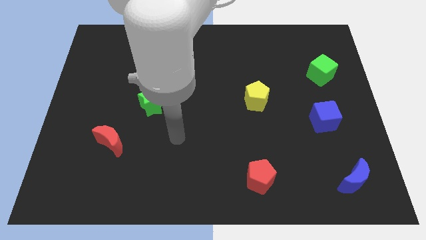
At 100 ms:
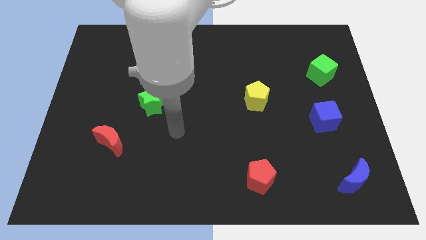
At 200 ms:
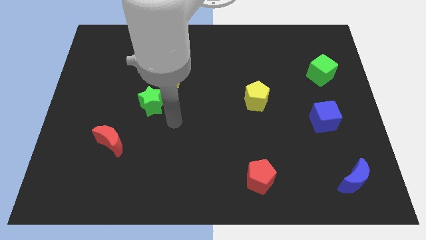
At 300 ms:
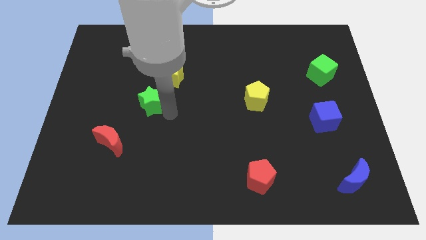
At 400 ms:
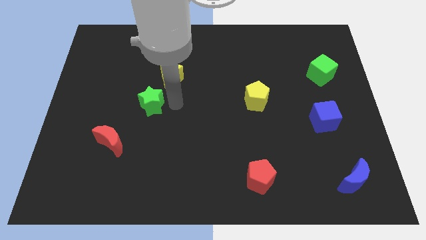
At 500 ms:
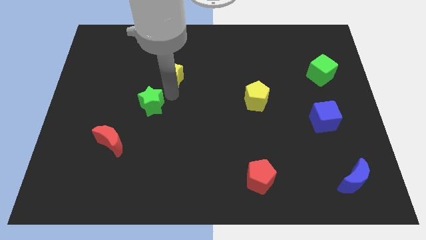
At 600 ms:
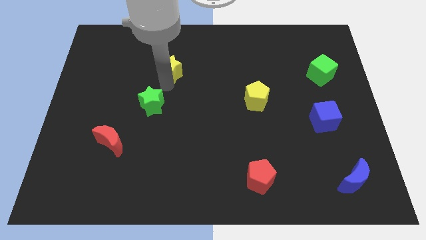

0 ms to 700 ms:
move the green star away from the yellow star

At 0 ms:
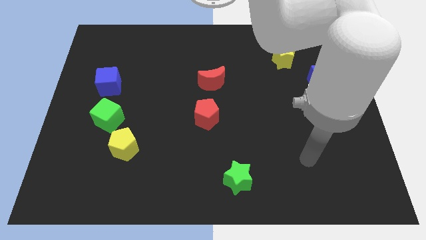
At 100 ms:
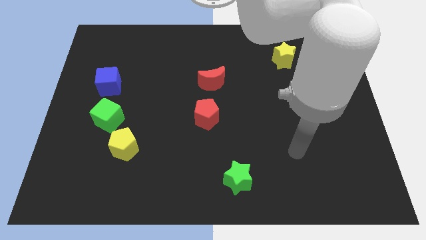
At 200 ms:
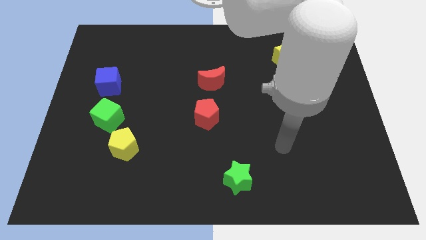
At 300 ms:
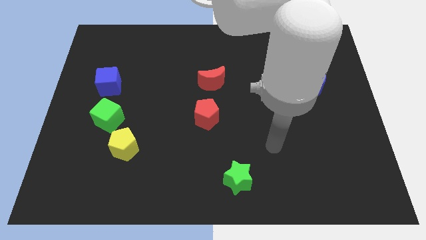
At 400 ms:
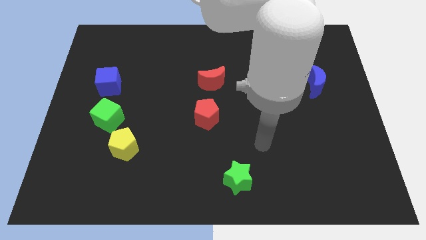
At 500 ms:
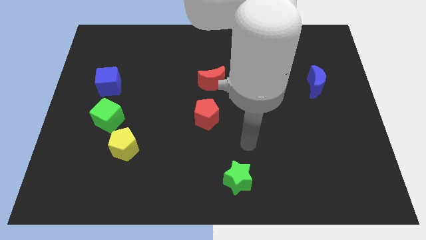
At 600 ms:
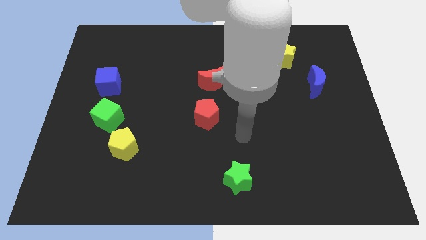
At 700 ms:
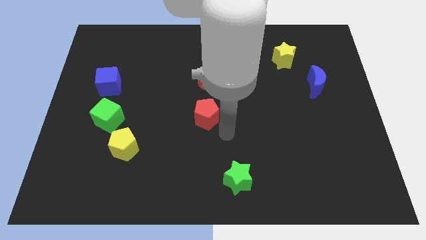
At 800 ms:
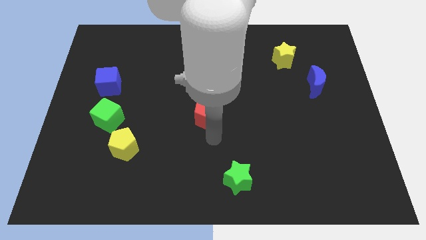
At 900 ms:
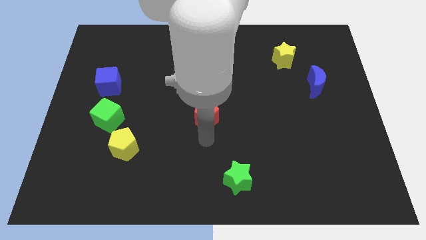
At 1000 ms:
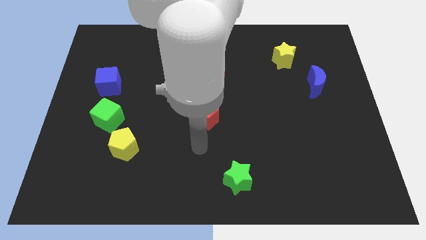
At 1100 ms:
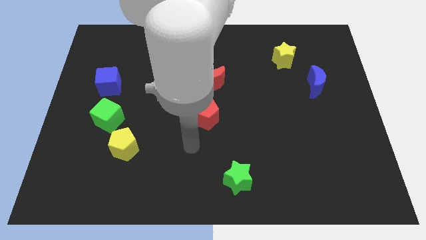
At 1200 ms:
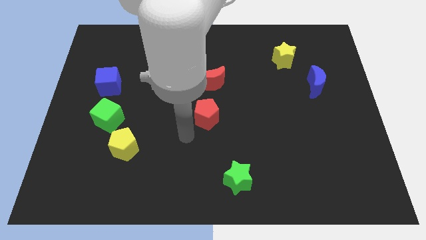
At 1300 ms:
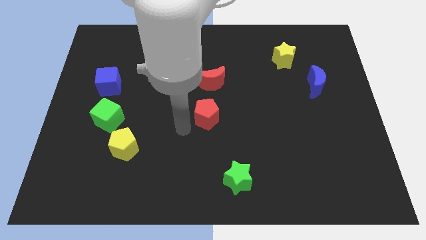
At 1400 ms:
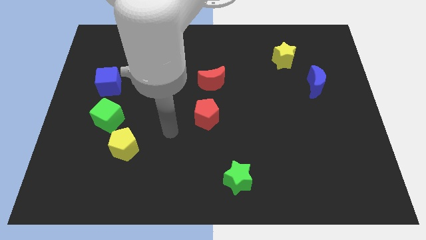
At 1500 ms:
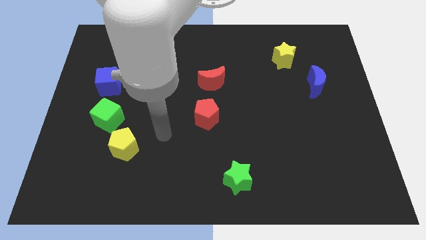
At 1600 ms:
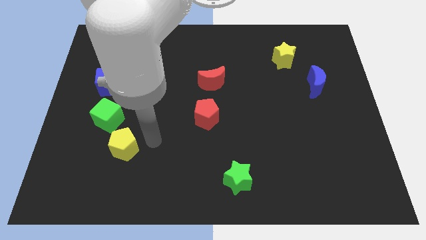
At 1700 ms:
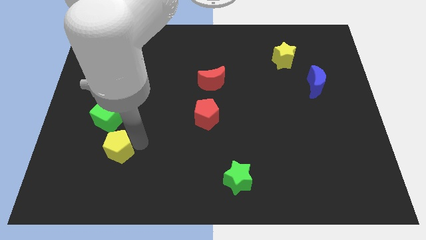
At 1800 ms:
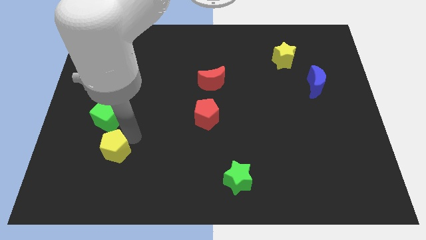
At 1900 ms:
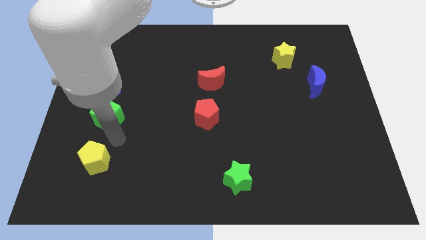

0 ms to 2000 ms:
pull the green cube apart from the yellow pentagon

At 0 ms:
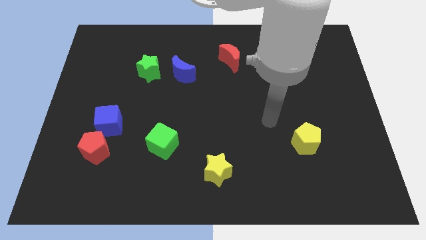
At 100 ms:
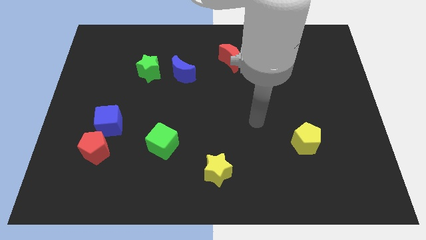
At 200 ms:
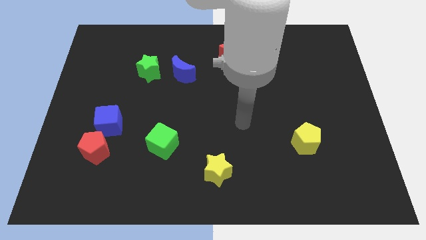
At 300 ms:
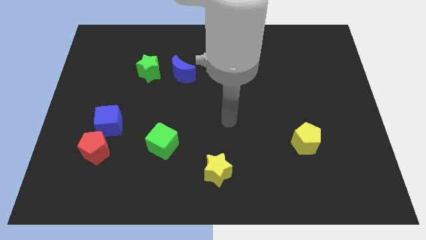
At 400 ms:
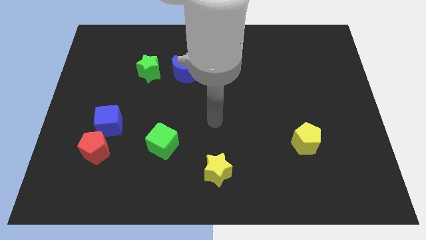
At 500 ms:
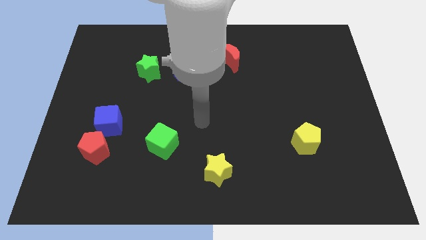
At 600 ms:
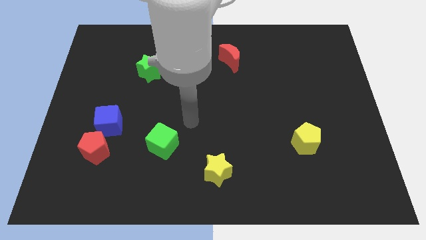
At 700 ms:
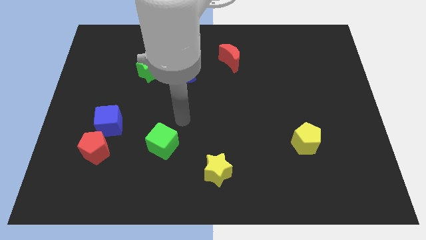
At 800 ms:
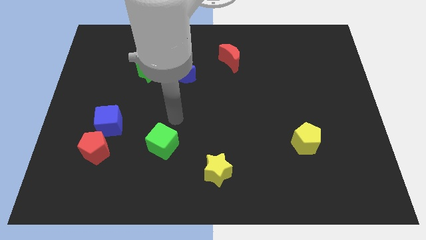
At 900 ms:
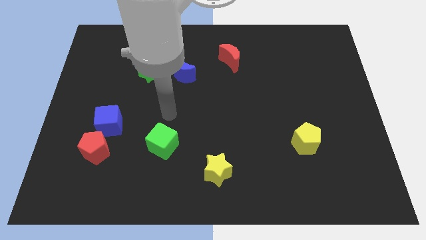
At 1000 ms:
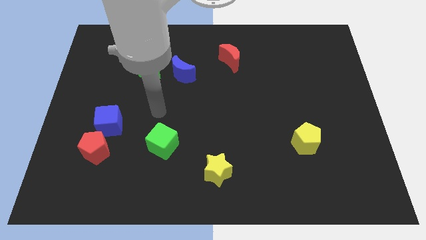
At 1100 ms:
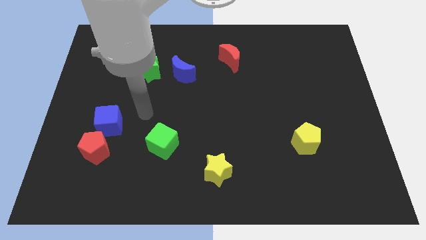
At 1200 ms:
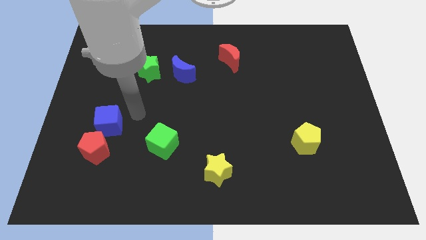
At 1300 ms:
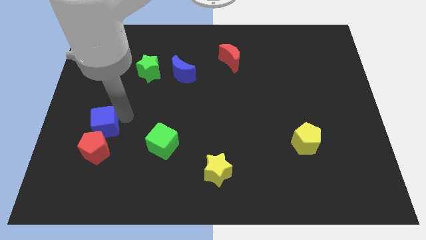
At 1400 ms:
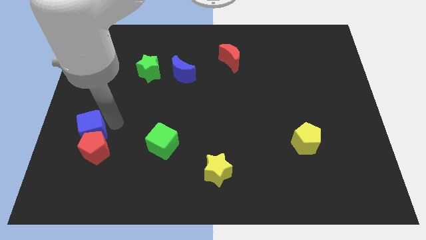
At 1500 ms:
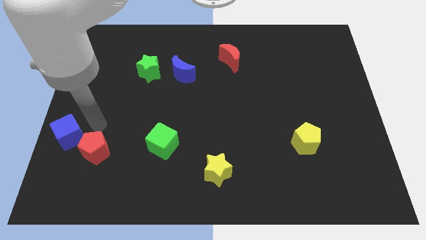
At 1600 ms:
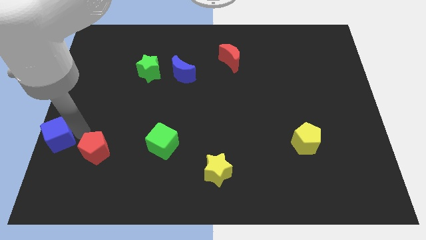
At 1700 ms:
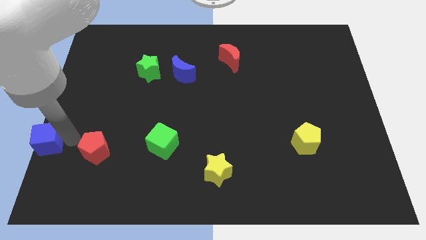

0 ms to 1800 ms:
move the red pentagon away from the blue cube

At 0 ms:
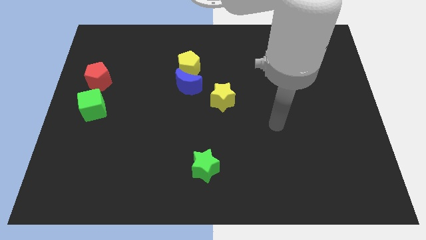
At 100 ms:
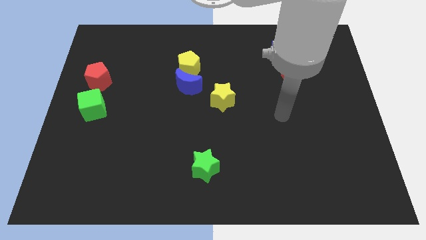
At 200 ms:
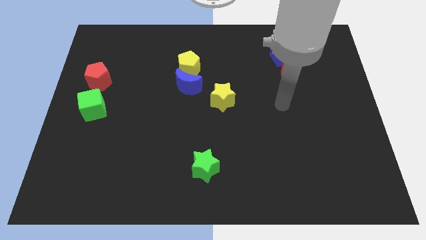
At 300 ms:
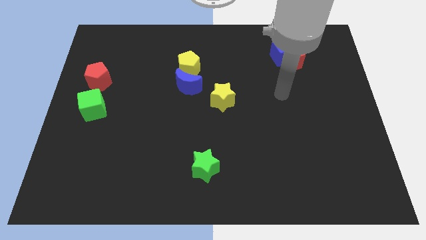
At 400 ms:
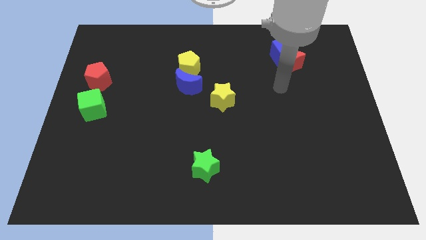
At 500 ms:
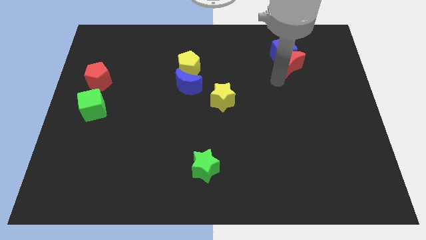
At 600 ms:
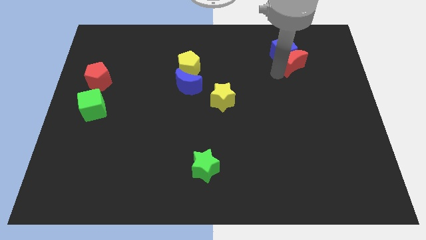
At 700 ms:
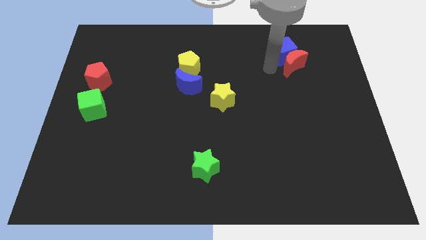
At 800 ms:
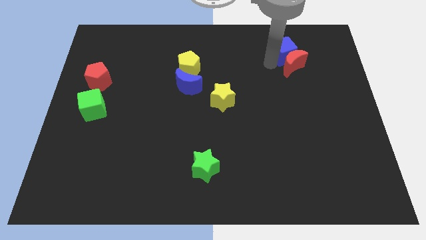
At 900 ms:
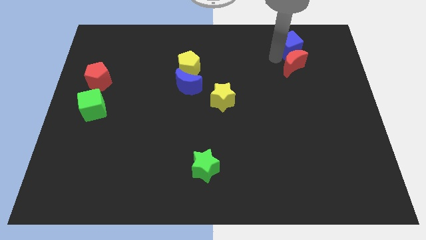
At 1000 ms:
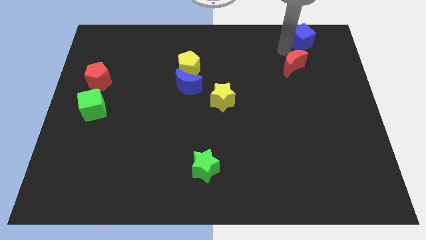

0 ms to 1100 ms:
move the red moon away from the blue cube

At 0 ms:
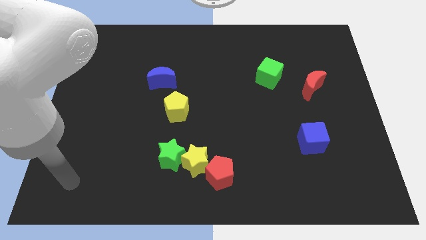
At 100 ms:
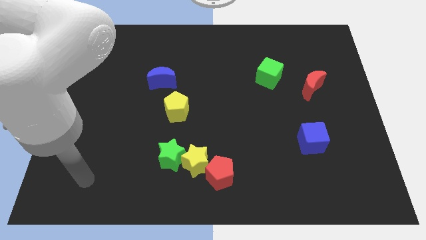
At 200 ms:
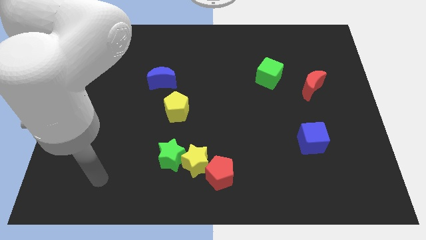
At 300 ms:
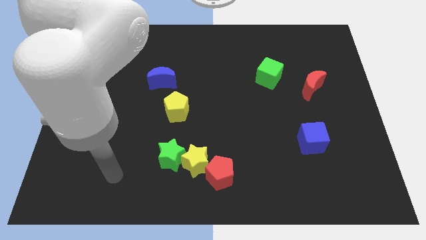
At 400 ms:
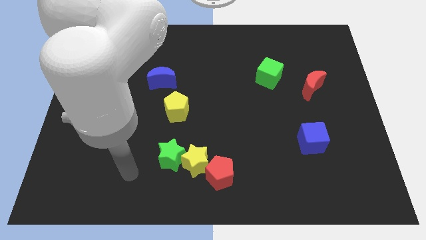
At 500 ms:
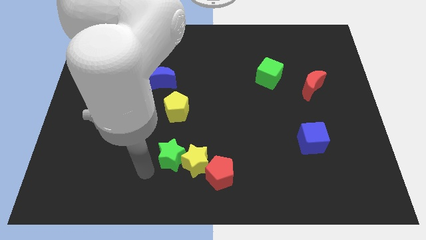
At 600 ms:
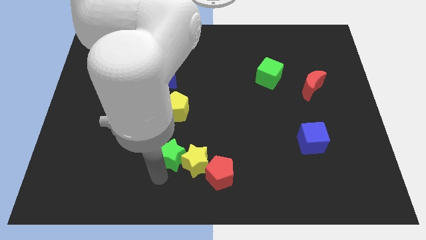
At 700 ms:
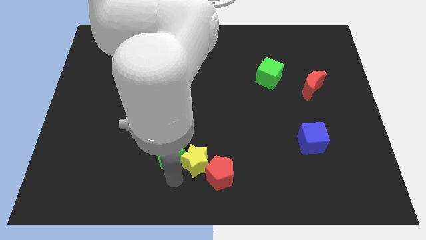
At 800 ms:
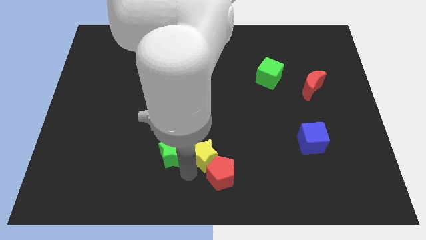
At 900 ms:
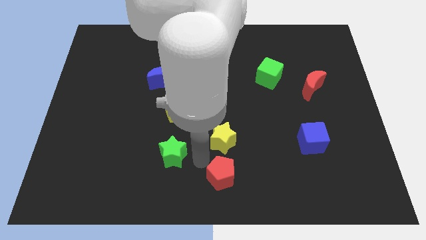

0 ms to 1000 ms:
separate the green star from the yellow star

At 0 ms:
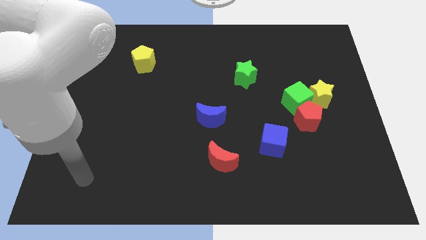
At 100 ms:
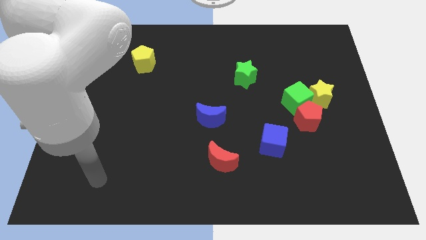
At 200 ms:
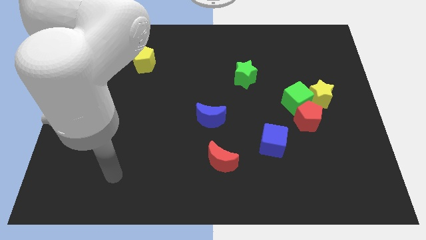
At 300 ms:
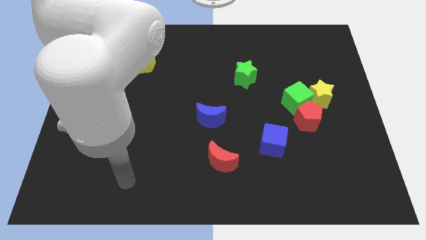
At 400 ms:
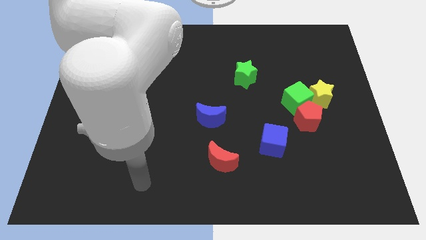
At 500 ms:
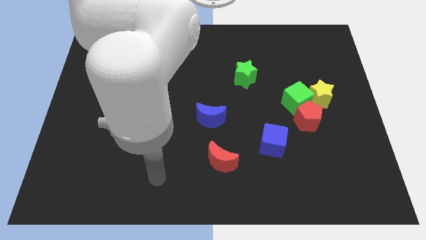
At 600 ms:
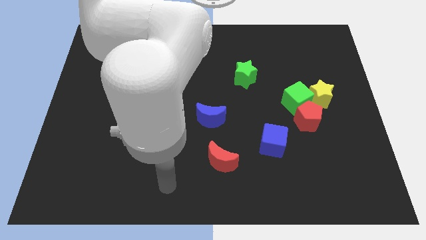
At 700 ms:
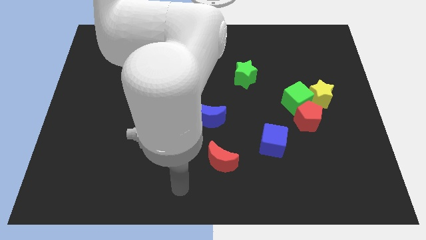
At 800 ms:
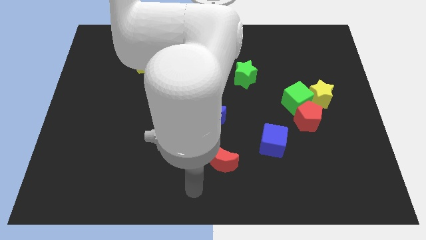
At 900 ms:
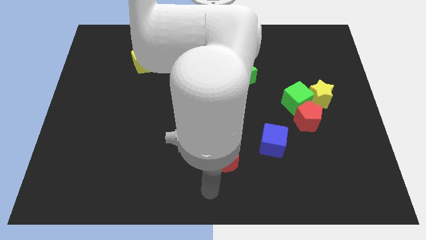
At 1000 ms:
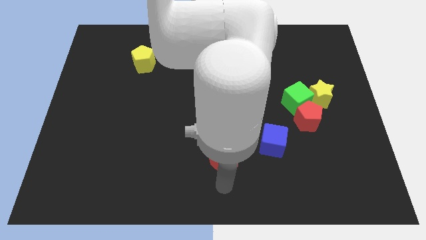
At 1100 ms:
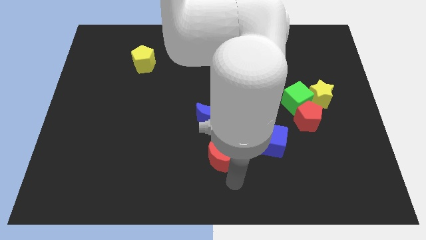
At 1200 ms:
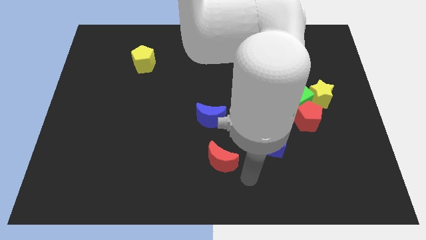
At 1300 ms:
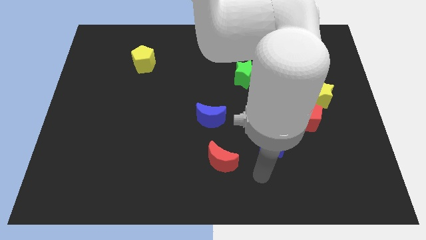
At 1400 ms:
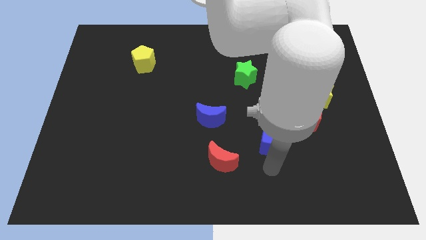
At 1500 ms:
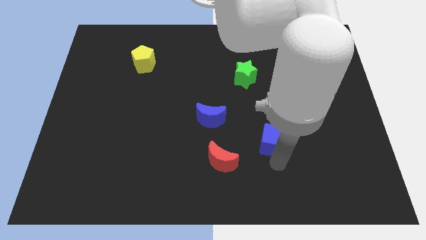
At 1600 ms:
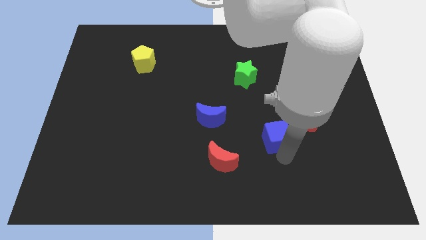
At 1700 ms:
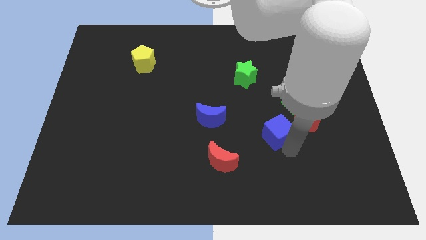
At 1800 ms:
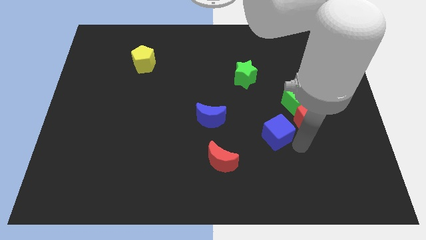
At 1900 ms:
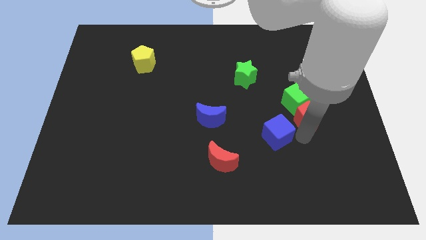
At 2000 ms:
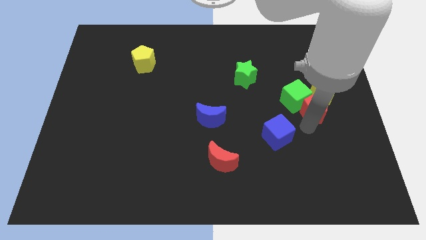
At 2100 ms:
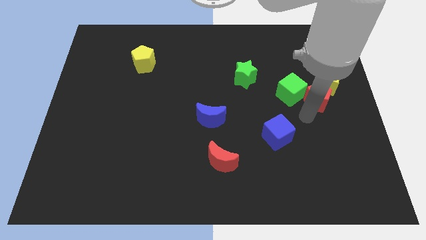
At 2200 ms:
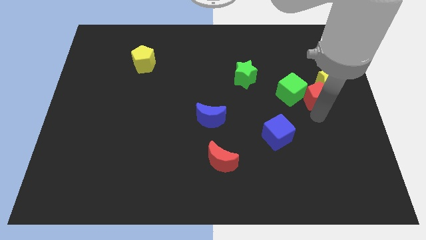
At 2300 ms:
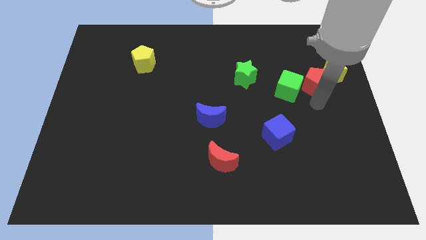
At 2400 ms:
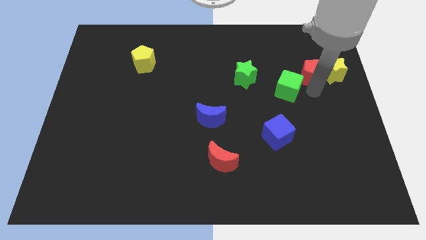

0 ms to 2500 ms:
move the green cube away from the red pentagon and yellow star

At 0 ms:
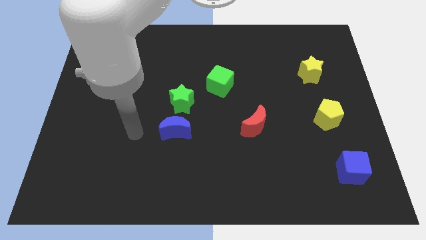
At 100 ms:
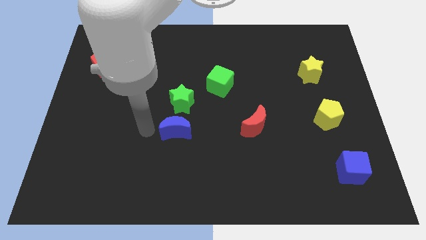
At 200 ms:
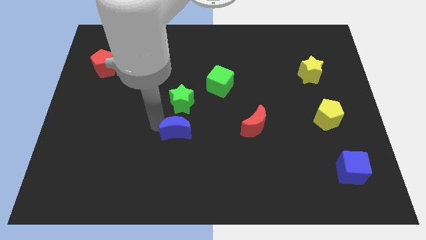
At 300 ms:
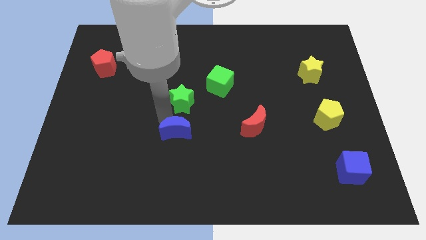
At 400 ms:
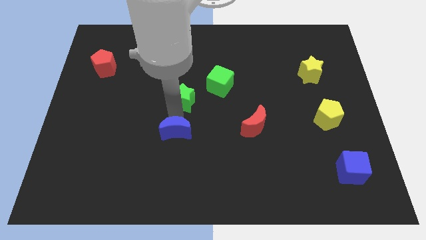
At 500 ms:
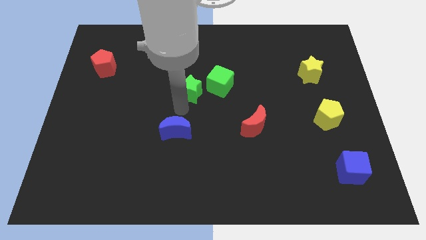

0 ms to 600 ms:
pull the blue moon apart from the green star
